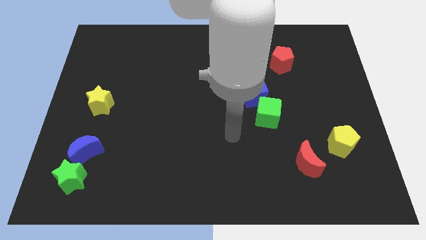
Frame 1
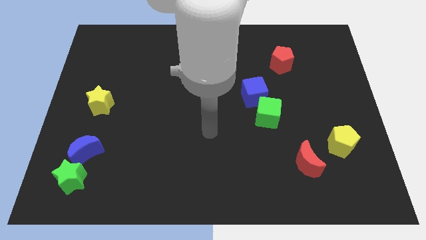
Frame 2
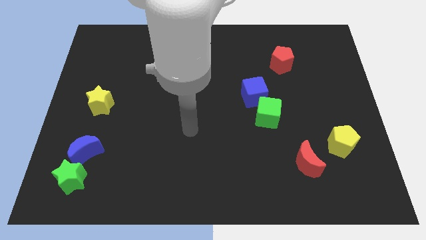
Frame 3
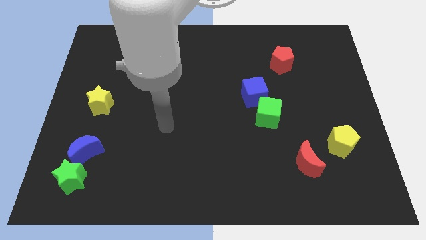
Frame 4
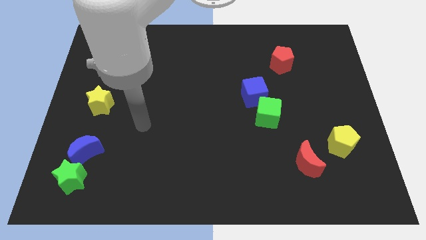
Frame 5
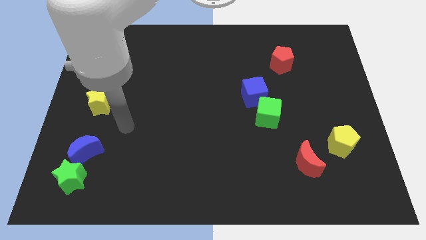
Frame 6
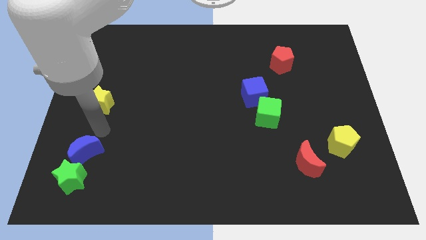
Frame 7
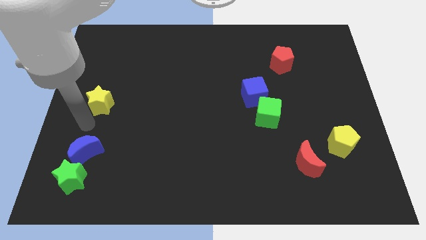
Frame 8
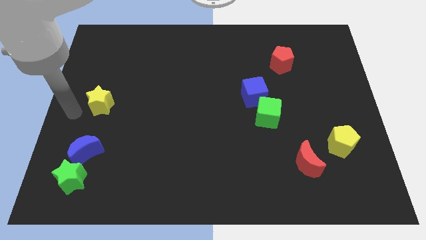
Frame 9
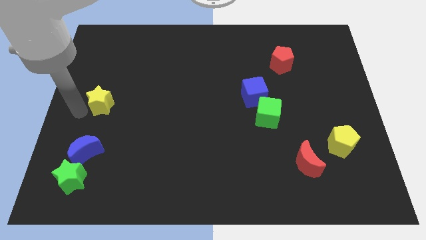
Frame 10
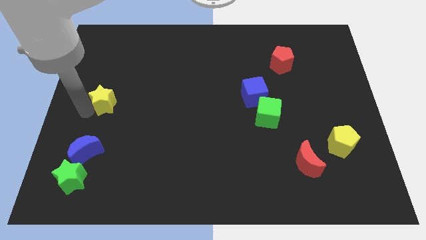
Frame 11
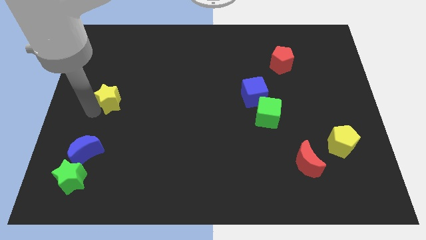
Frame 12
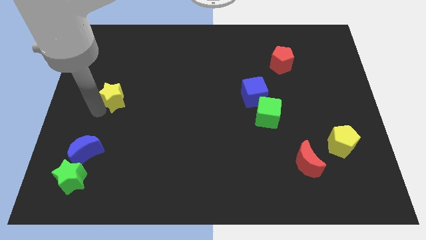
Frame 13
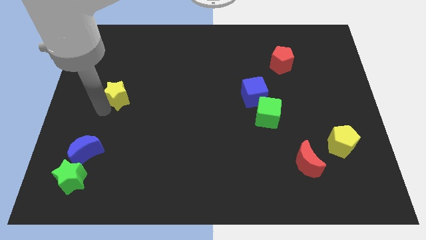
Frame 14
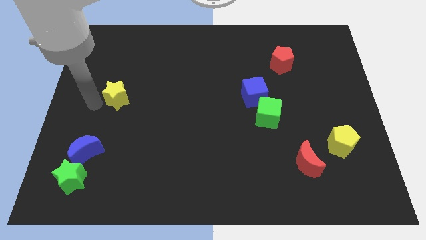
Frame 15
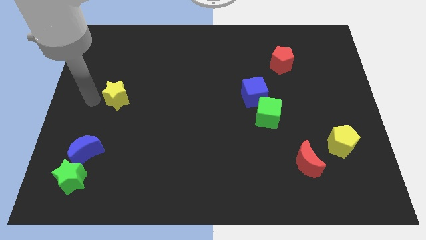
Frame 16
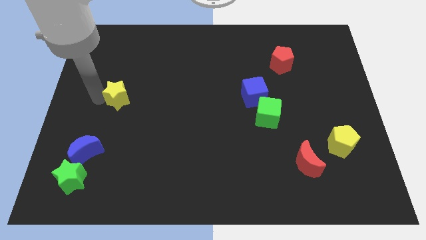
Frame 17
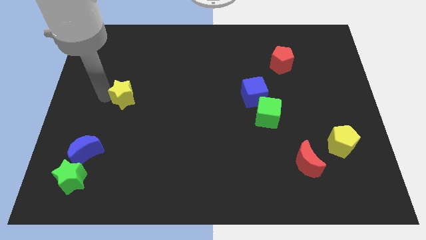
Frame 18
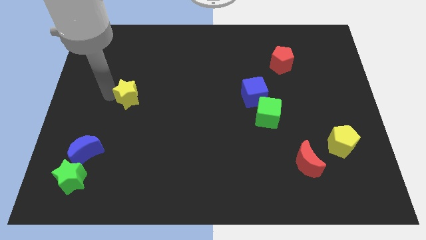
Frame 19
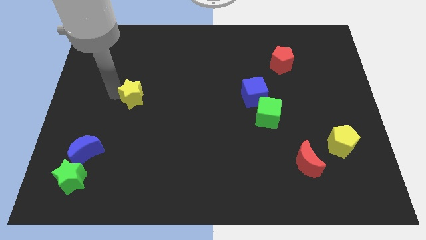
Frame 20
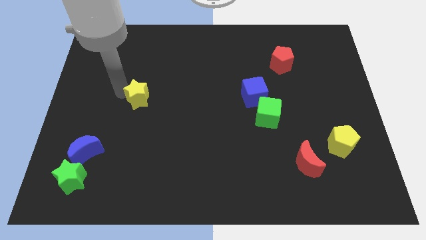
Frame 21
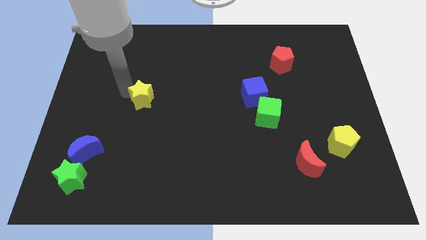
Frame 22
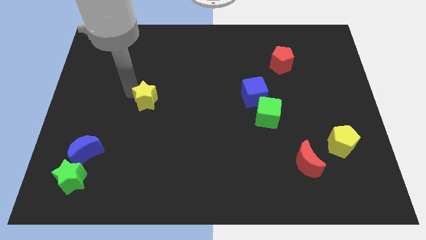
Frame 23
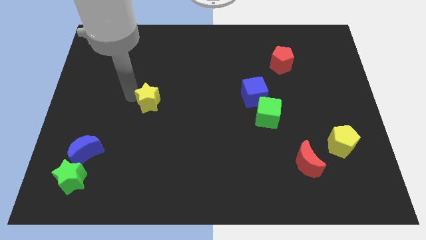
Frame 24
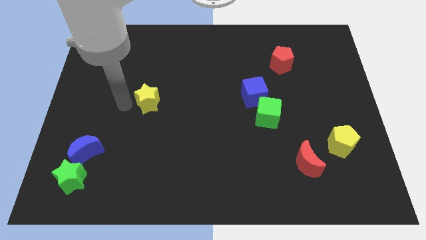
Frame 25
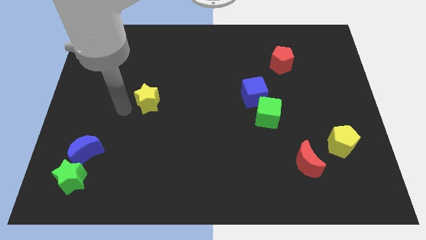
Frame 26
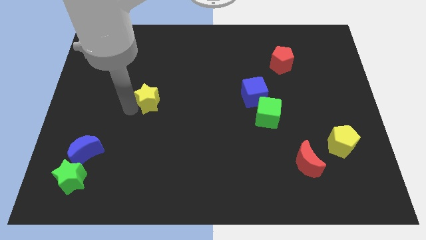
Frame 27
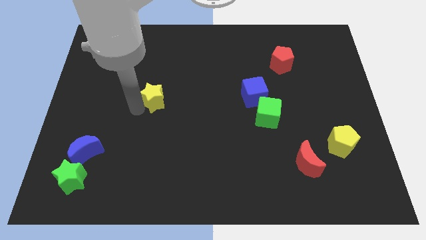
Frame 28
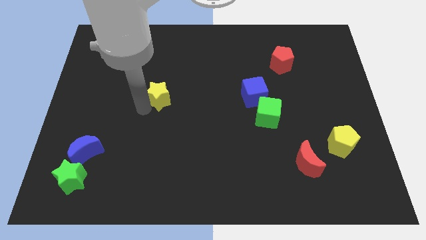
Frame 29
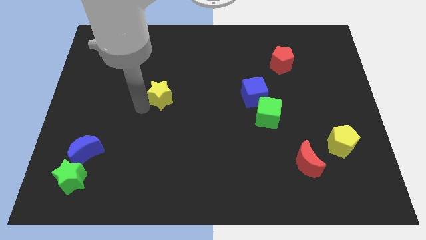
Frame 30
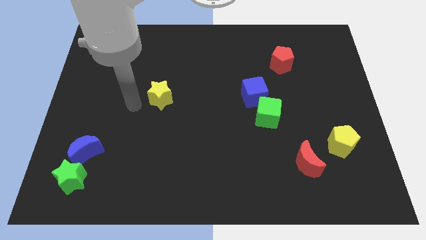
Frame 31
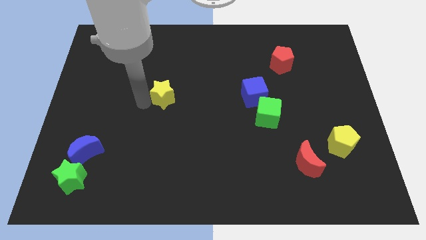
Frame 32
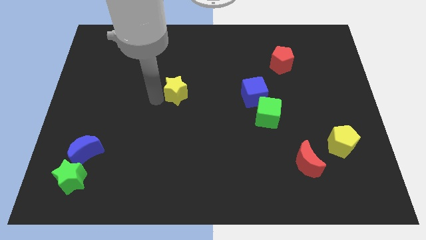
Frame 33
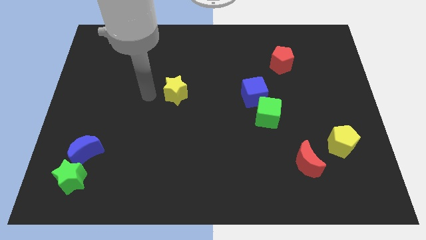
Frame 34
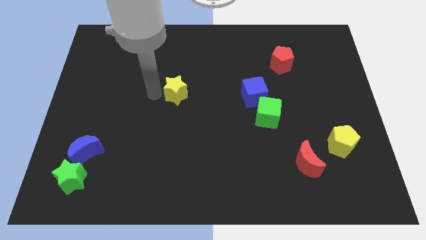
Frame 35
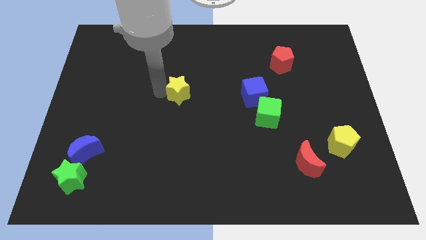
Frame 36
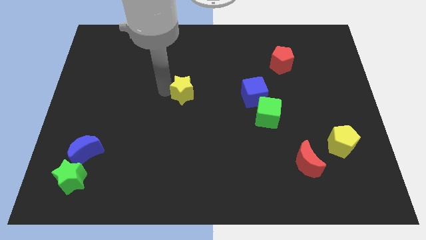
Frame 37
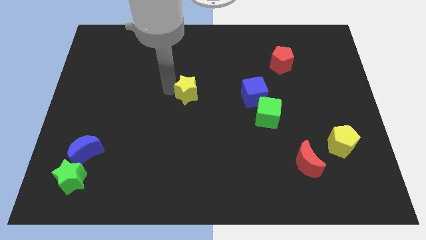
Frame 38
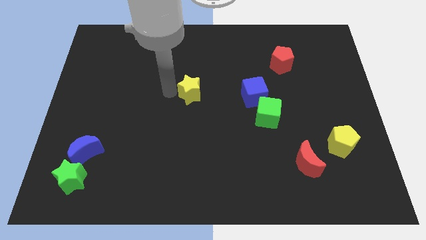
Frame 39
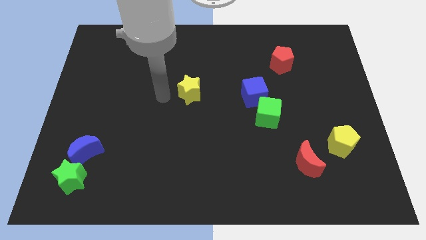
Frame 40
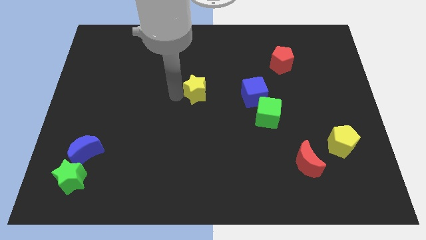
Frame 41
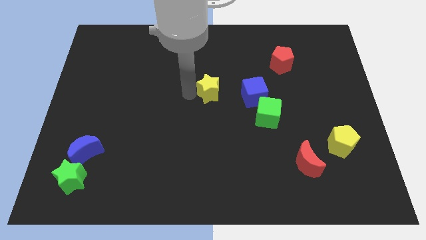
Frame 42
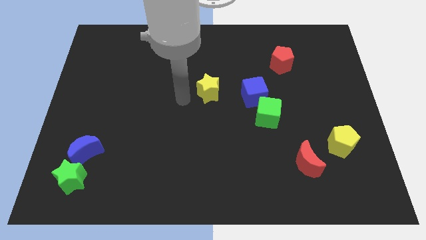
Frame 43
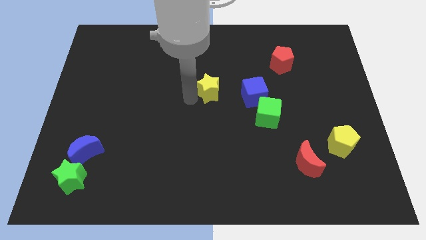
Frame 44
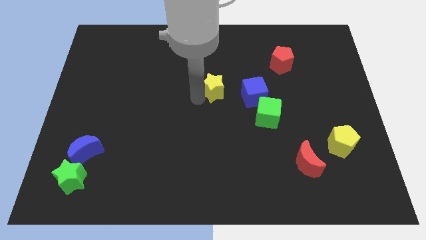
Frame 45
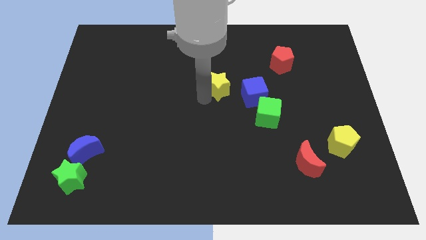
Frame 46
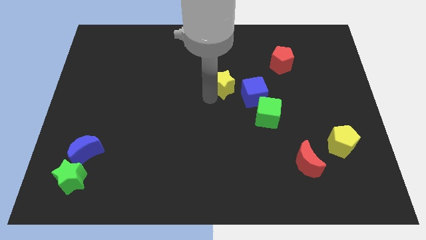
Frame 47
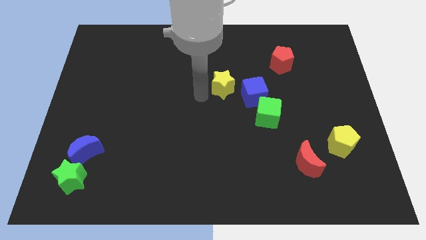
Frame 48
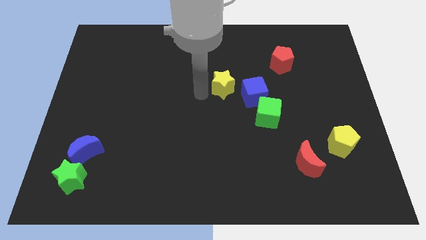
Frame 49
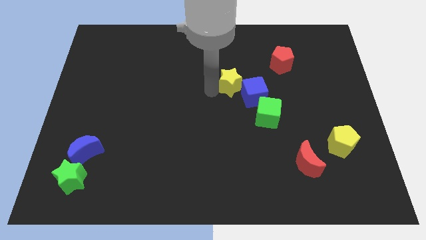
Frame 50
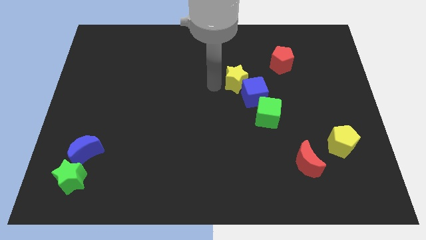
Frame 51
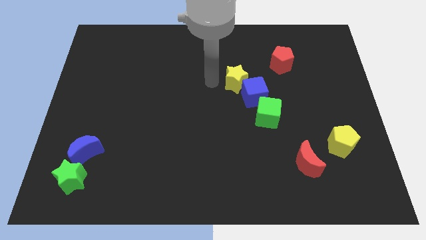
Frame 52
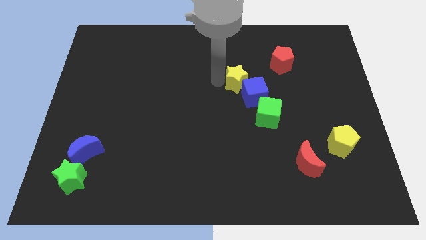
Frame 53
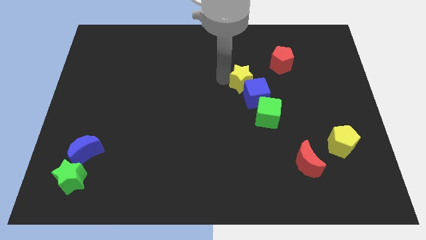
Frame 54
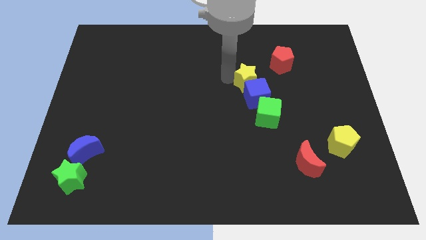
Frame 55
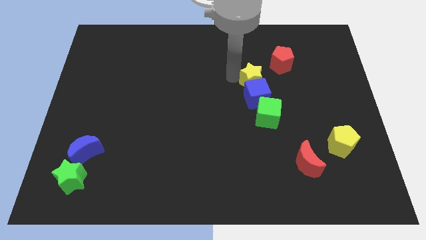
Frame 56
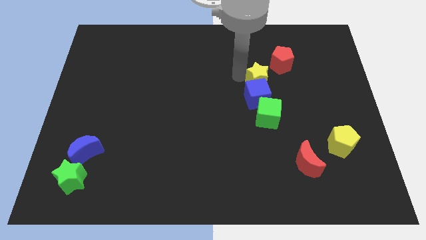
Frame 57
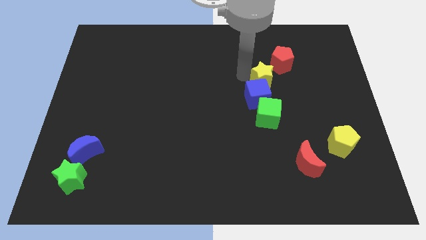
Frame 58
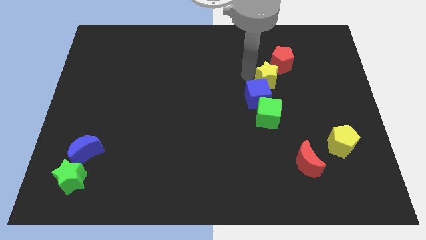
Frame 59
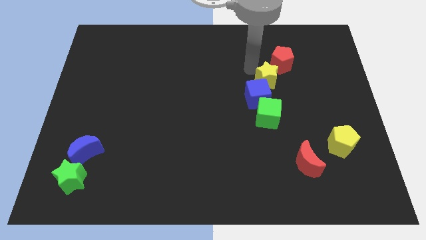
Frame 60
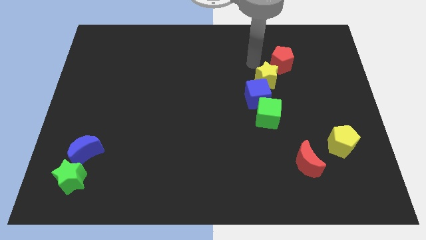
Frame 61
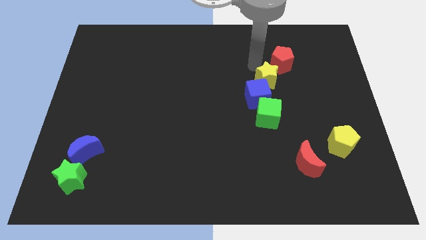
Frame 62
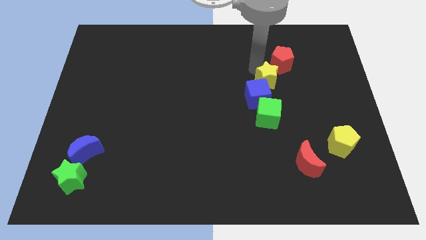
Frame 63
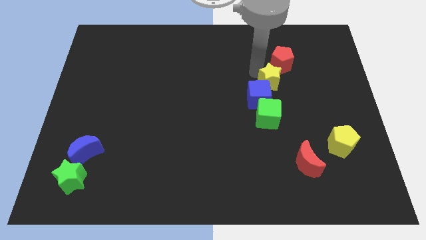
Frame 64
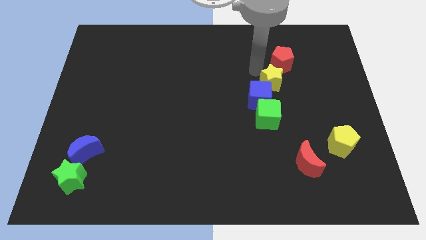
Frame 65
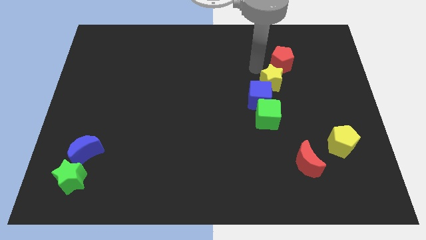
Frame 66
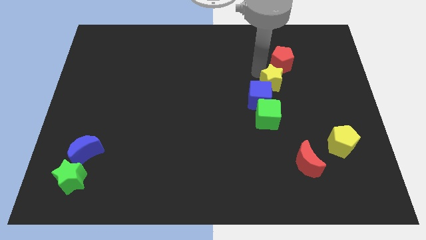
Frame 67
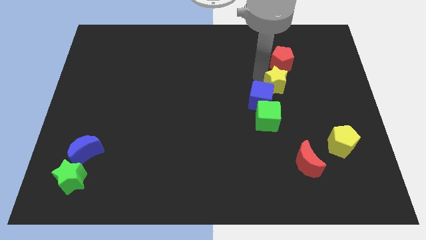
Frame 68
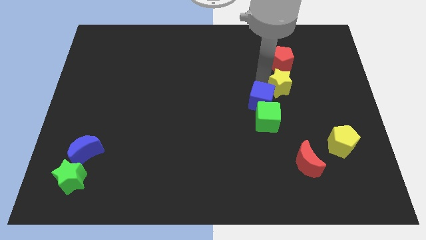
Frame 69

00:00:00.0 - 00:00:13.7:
push the yellow star to the top right side of the green cube

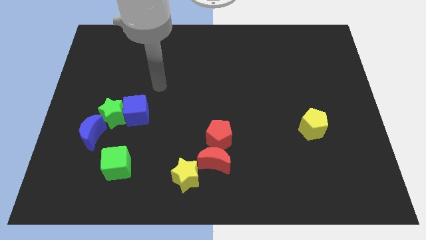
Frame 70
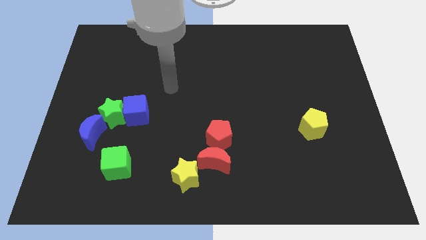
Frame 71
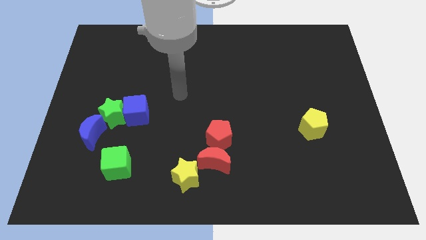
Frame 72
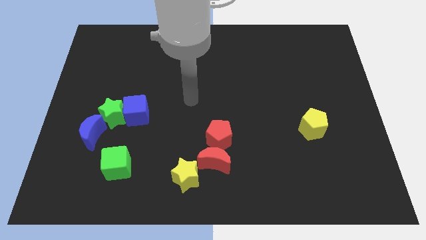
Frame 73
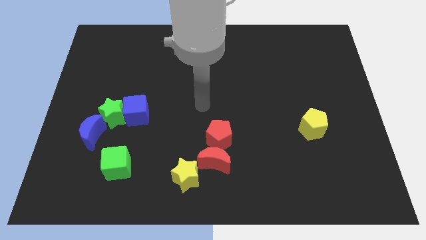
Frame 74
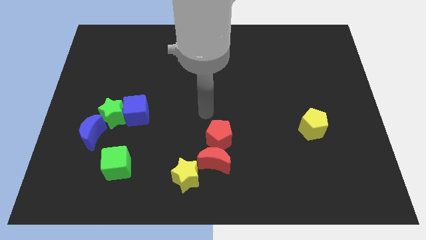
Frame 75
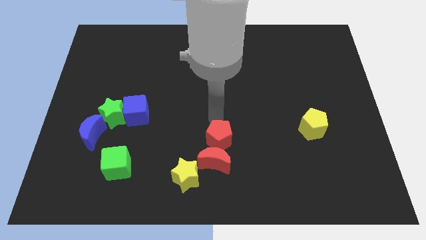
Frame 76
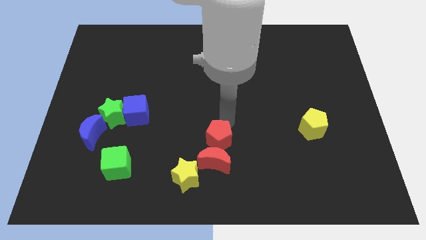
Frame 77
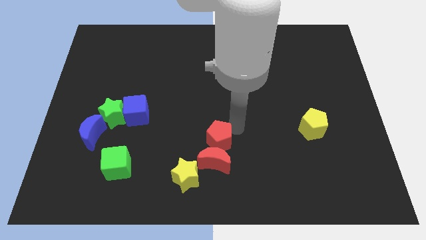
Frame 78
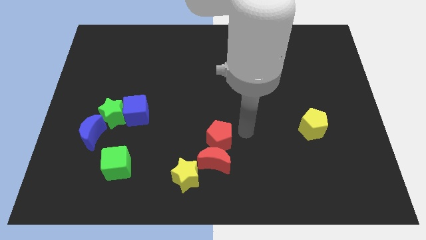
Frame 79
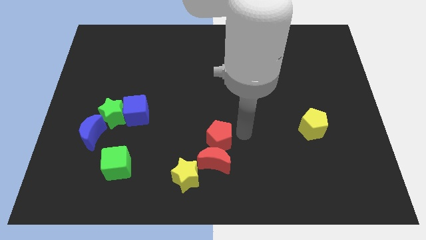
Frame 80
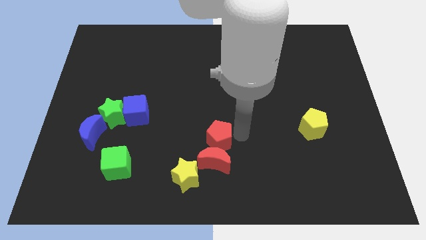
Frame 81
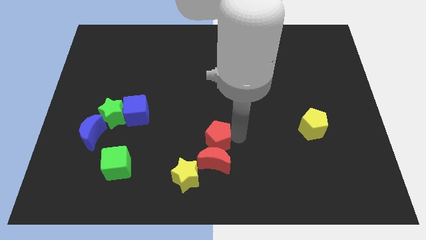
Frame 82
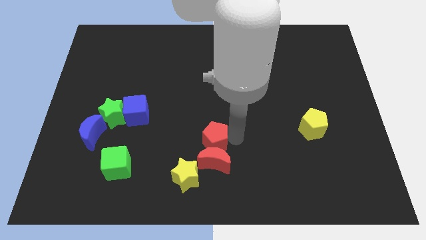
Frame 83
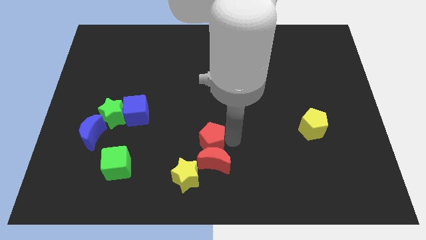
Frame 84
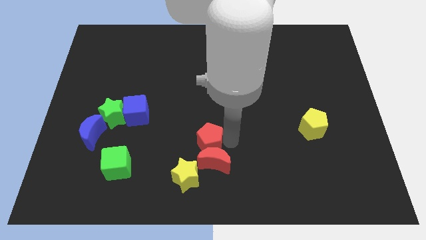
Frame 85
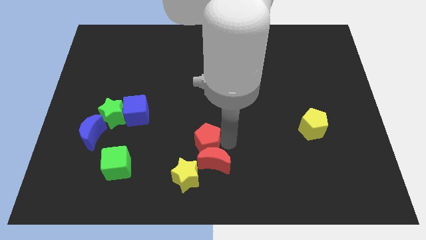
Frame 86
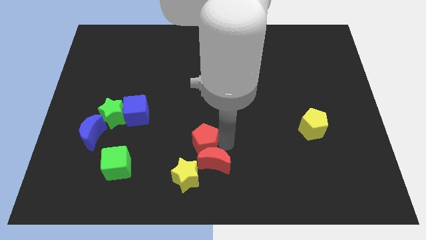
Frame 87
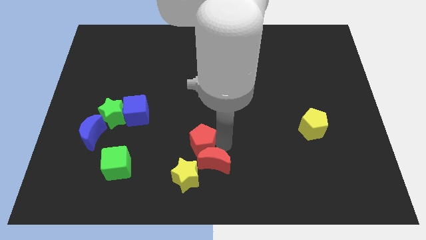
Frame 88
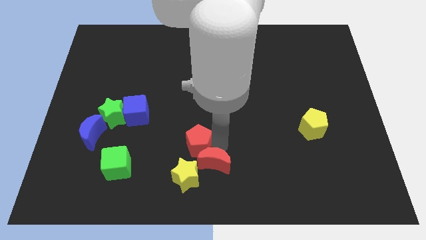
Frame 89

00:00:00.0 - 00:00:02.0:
slide the red pentagon left of the red moon
